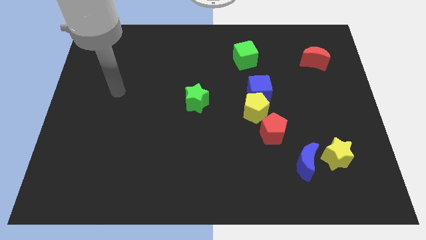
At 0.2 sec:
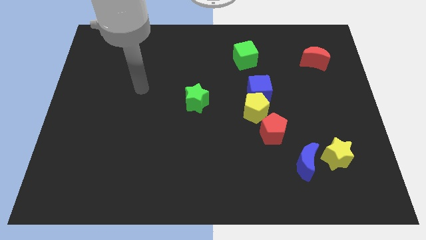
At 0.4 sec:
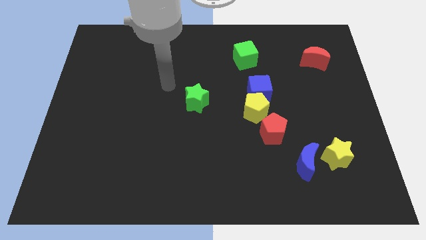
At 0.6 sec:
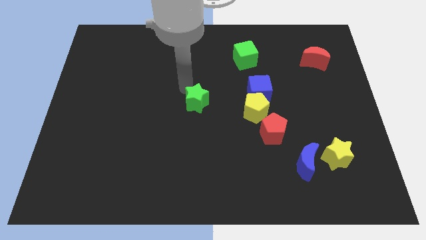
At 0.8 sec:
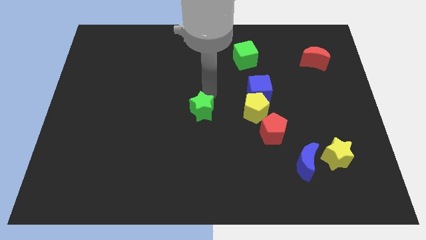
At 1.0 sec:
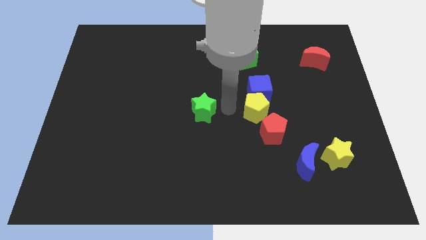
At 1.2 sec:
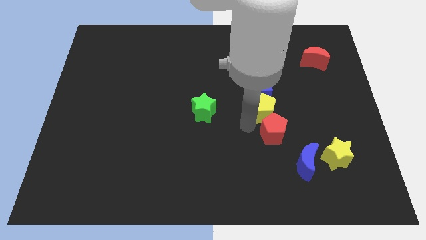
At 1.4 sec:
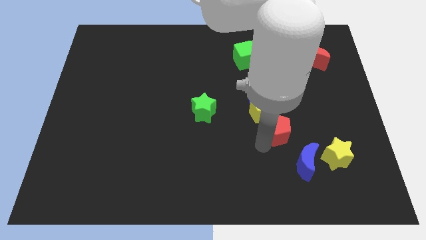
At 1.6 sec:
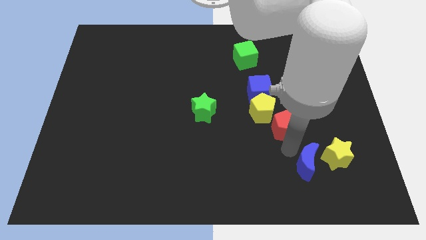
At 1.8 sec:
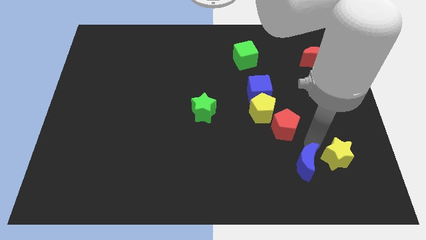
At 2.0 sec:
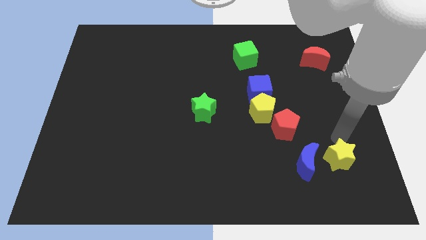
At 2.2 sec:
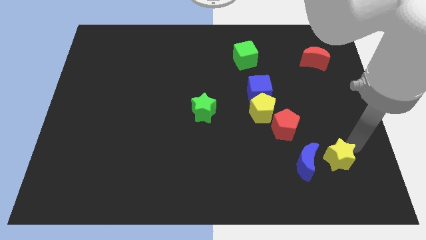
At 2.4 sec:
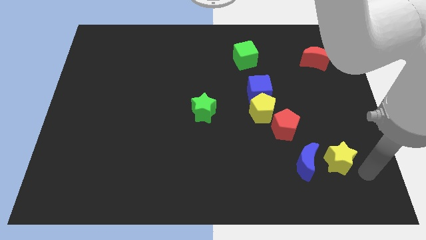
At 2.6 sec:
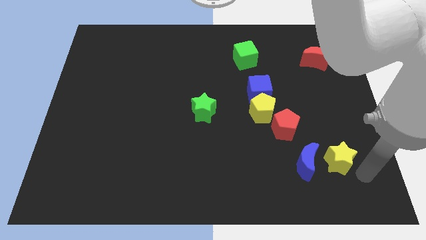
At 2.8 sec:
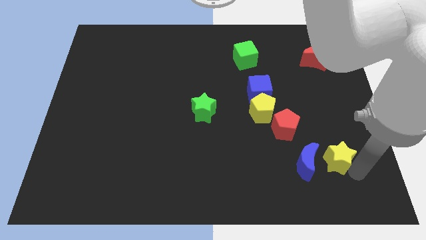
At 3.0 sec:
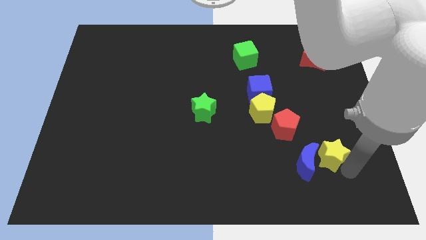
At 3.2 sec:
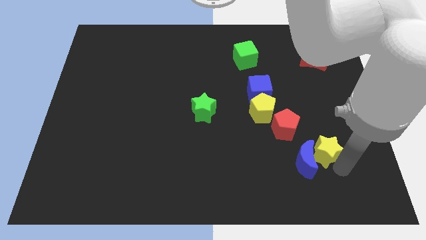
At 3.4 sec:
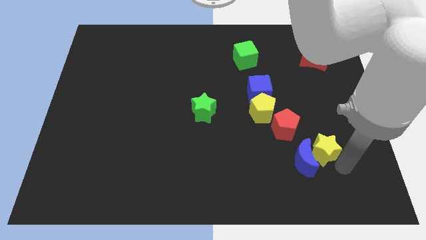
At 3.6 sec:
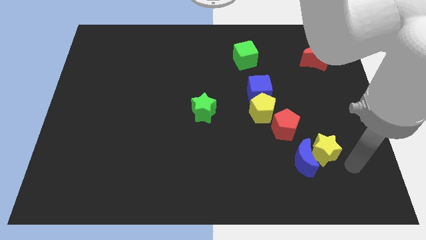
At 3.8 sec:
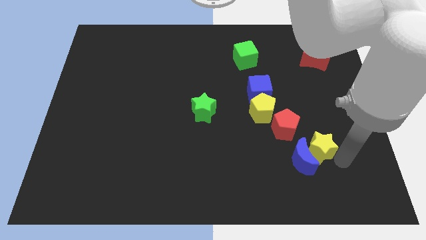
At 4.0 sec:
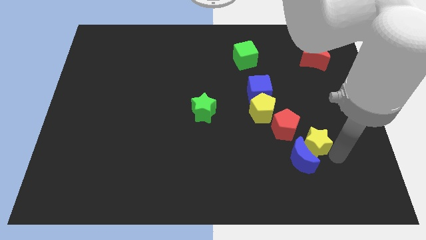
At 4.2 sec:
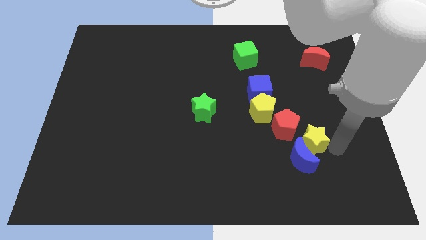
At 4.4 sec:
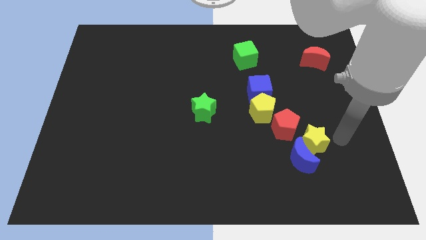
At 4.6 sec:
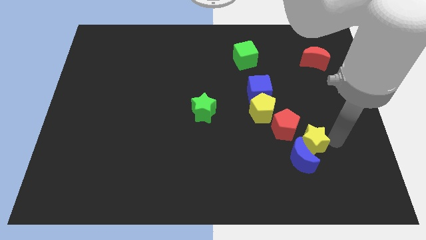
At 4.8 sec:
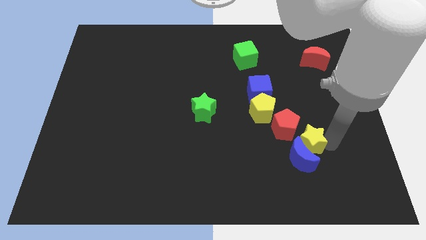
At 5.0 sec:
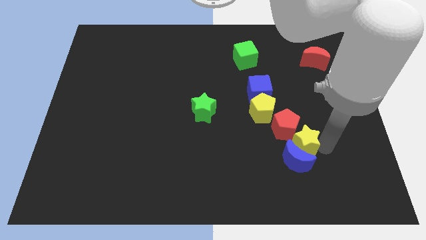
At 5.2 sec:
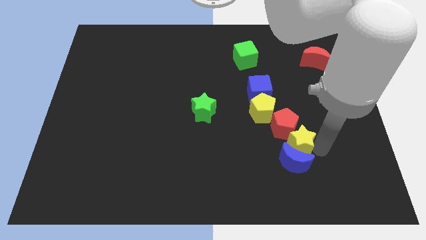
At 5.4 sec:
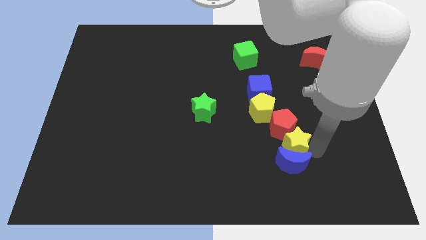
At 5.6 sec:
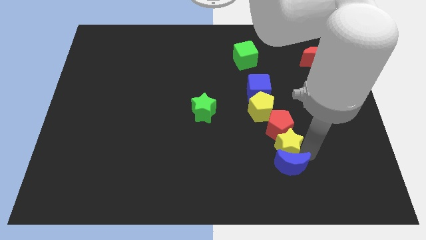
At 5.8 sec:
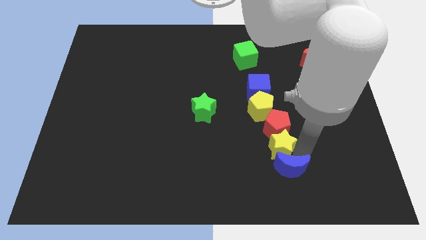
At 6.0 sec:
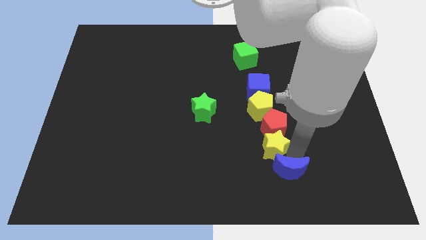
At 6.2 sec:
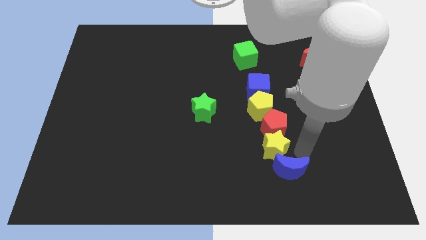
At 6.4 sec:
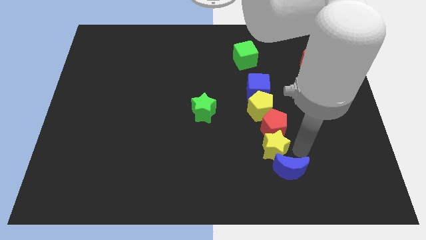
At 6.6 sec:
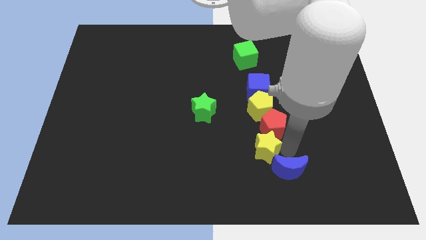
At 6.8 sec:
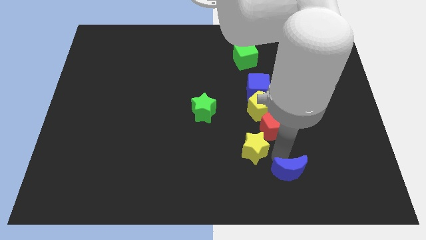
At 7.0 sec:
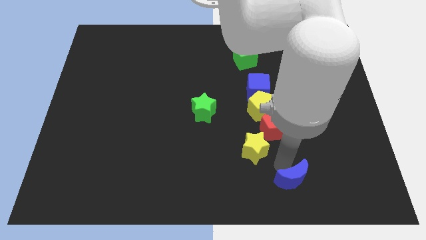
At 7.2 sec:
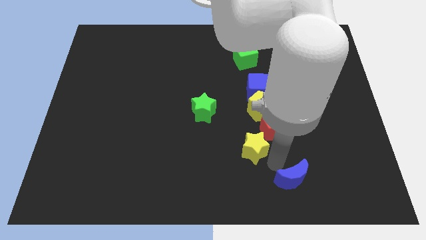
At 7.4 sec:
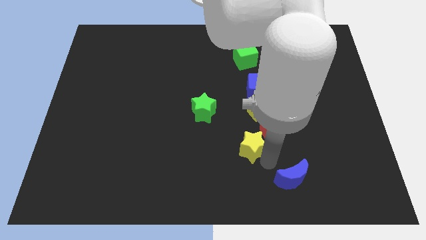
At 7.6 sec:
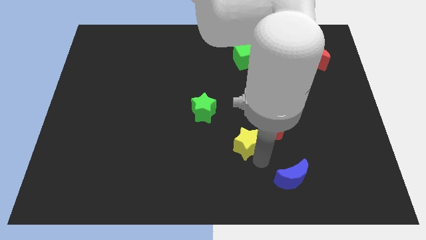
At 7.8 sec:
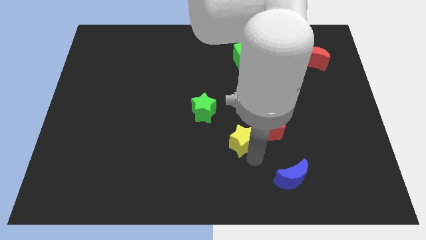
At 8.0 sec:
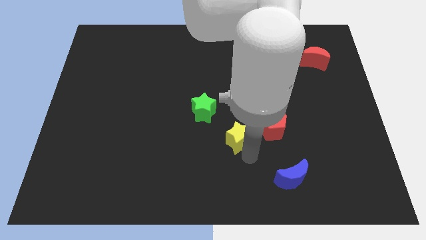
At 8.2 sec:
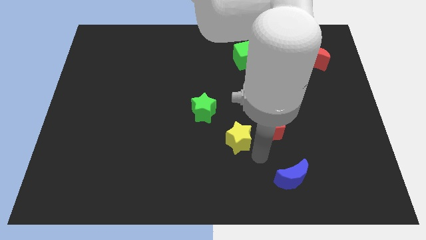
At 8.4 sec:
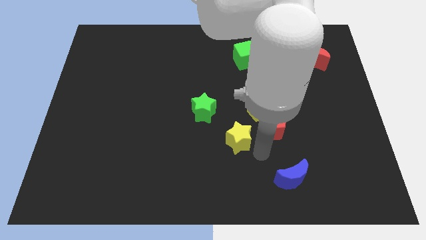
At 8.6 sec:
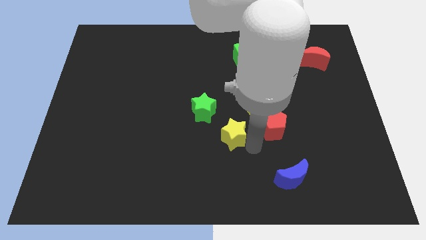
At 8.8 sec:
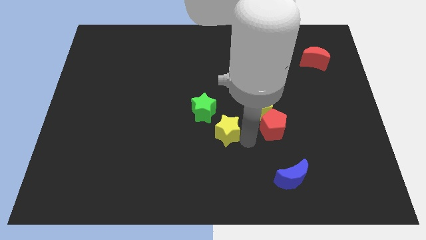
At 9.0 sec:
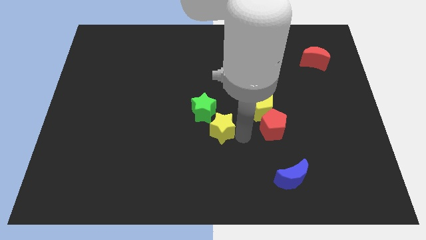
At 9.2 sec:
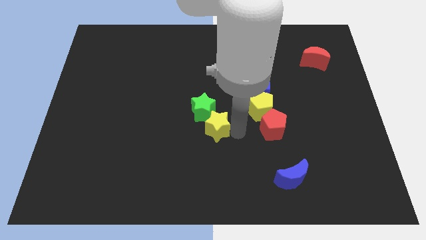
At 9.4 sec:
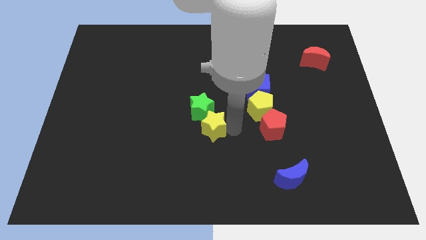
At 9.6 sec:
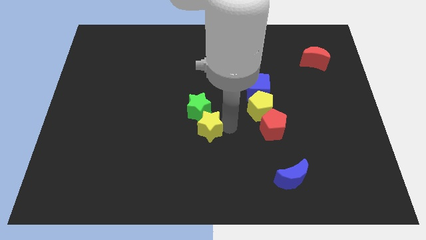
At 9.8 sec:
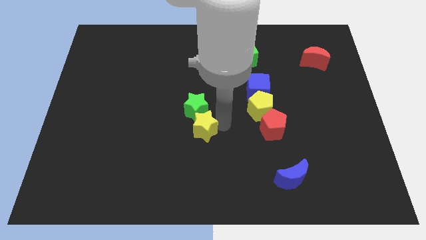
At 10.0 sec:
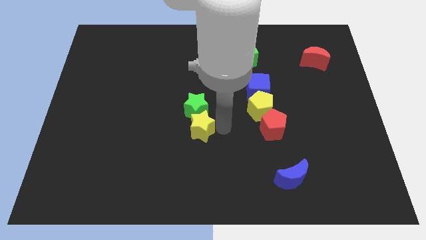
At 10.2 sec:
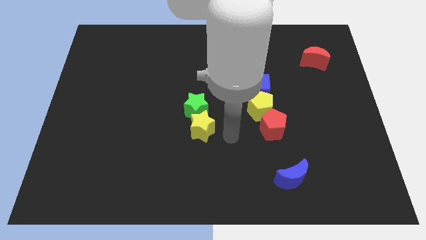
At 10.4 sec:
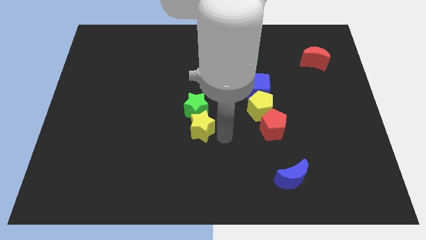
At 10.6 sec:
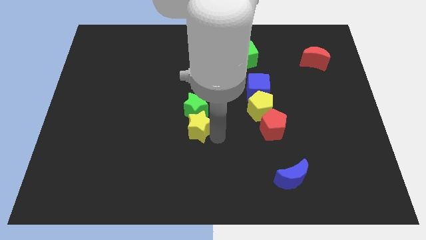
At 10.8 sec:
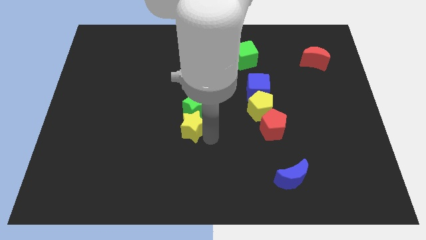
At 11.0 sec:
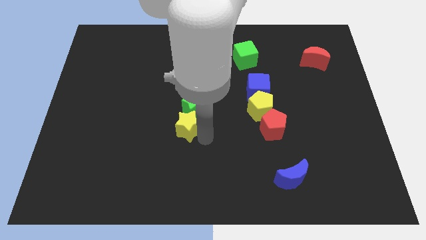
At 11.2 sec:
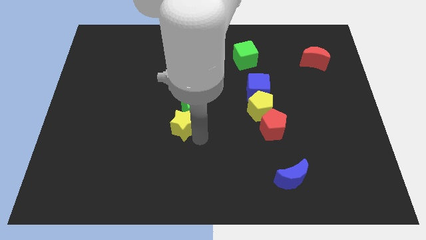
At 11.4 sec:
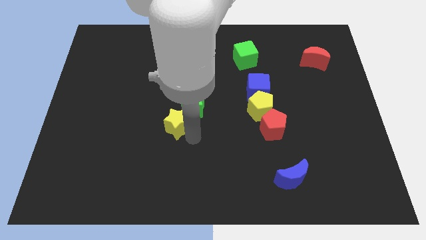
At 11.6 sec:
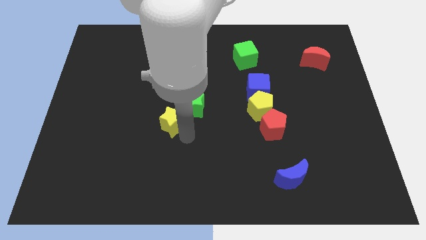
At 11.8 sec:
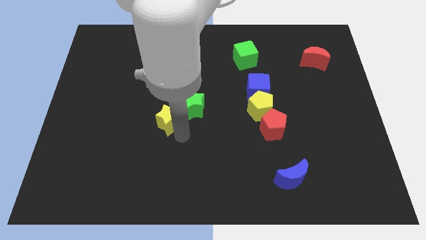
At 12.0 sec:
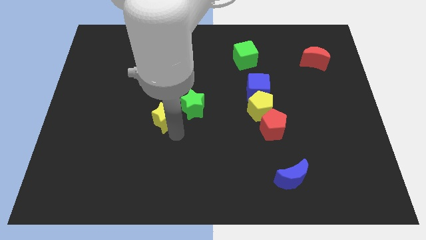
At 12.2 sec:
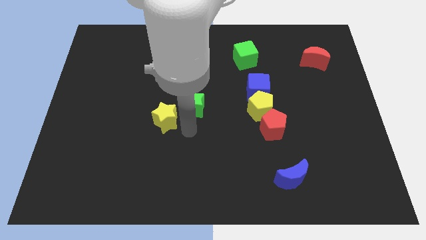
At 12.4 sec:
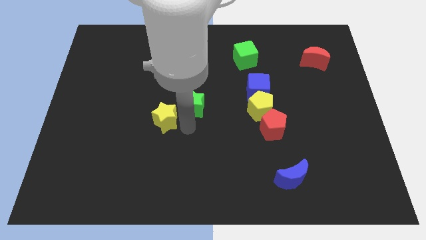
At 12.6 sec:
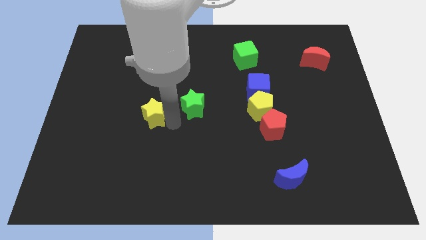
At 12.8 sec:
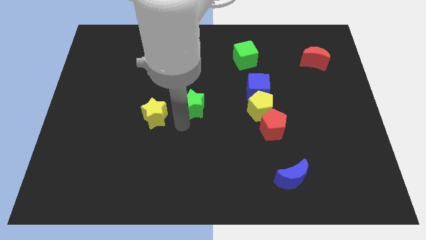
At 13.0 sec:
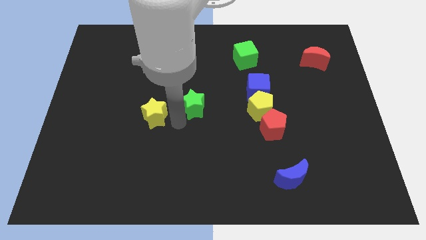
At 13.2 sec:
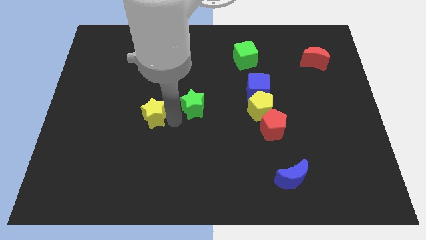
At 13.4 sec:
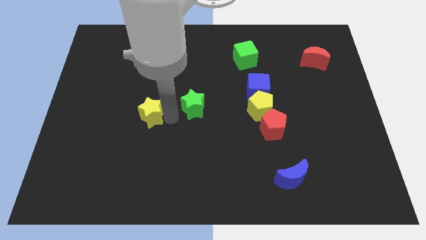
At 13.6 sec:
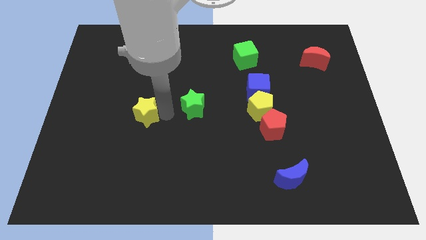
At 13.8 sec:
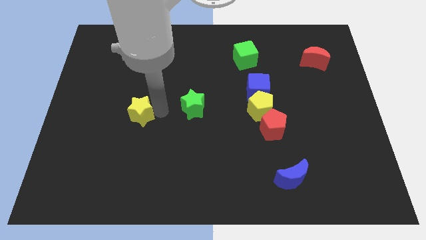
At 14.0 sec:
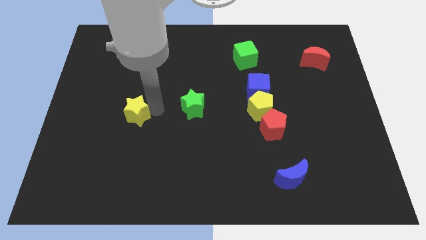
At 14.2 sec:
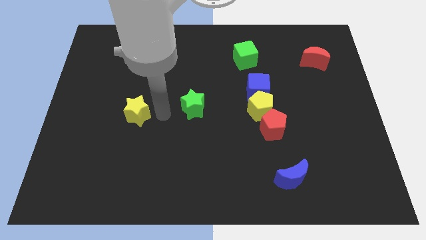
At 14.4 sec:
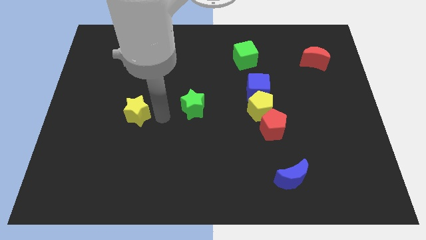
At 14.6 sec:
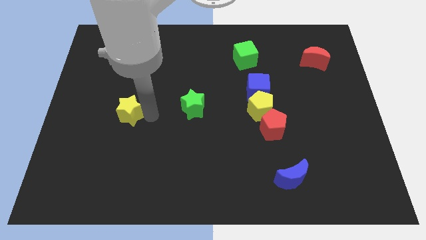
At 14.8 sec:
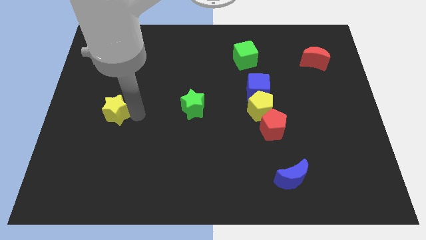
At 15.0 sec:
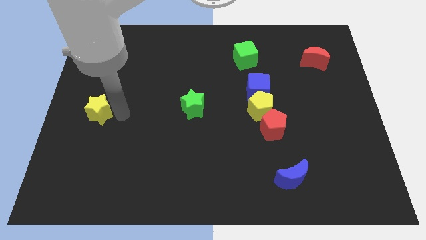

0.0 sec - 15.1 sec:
put the yellow star to the left side
